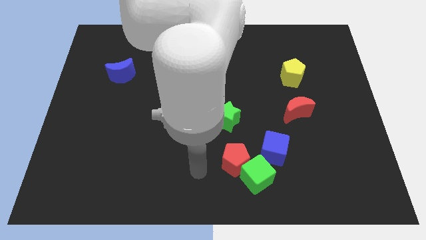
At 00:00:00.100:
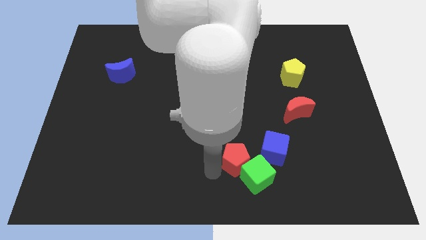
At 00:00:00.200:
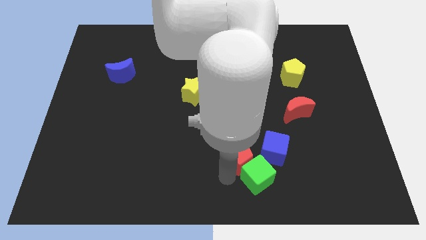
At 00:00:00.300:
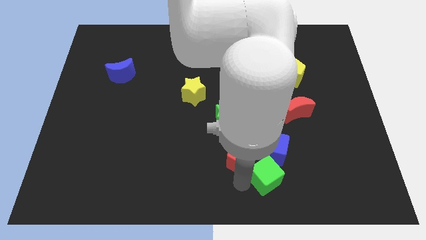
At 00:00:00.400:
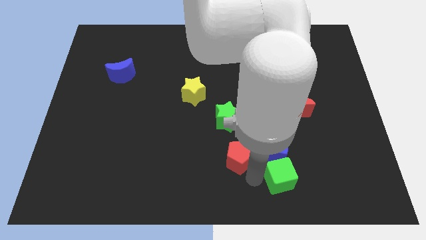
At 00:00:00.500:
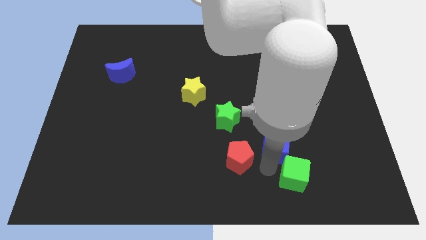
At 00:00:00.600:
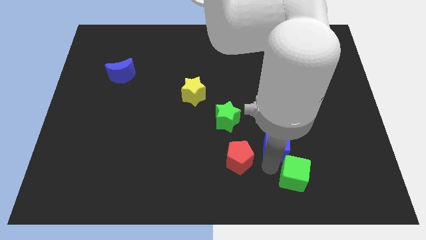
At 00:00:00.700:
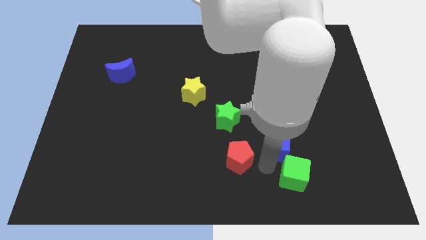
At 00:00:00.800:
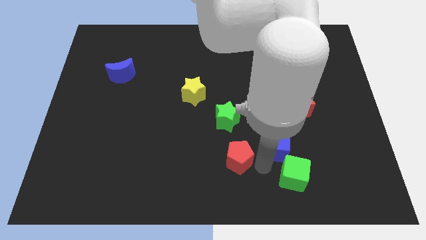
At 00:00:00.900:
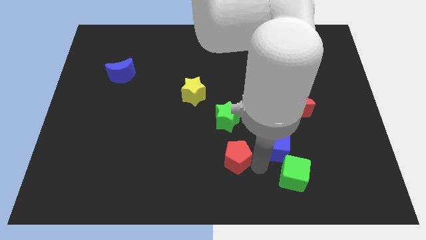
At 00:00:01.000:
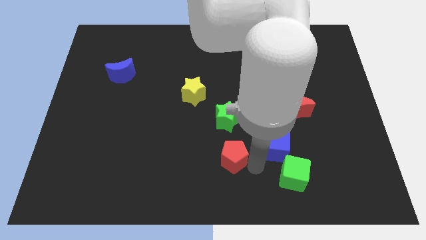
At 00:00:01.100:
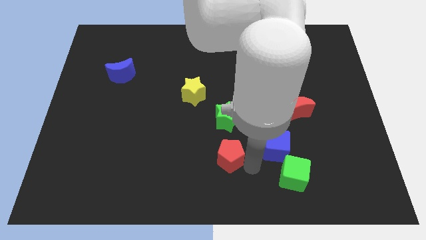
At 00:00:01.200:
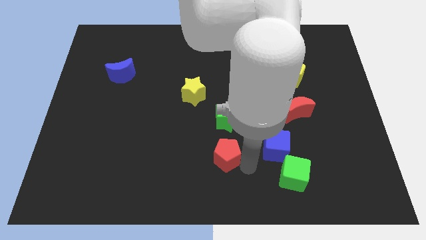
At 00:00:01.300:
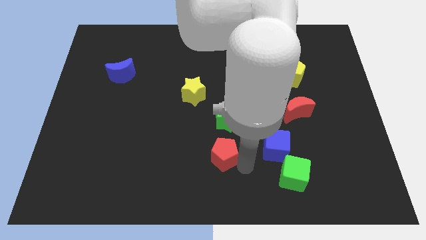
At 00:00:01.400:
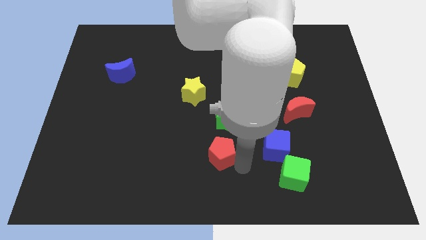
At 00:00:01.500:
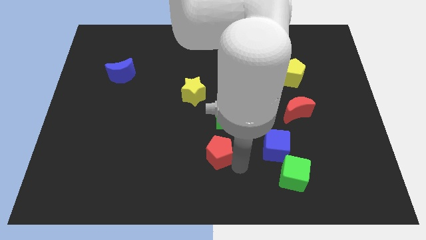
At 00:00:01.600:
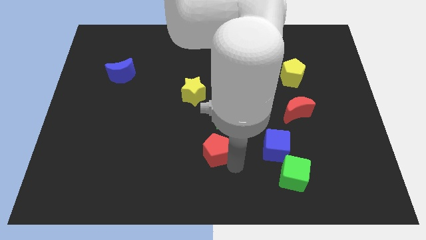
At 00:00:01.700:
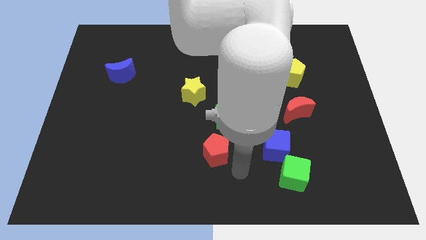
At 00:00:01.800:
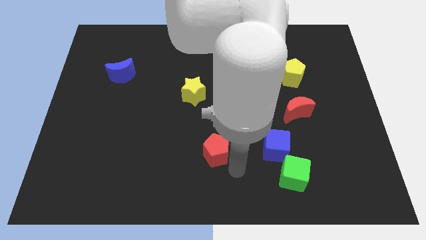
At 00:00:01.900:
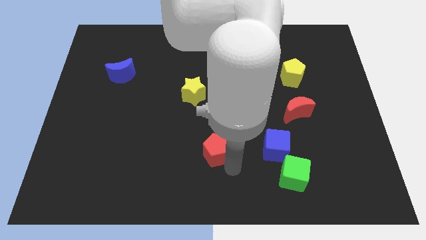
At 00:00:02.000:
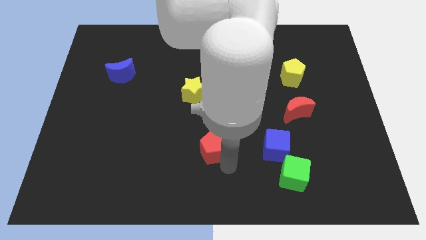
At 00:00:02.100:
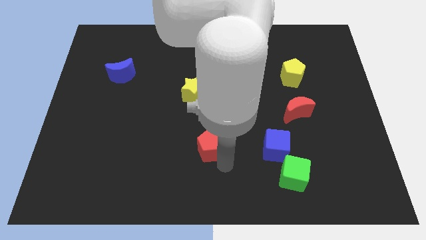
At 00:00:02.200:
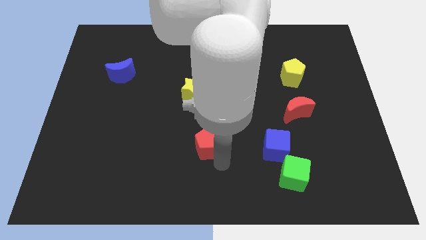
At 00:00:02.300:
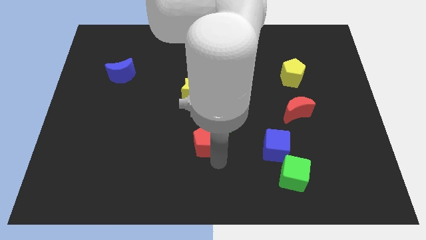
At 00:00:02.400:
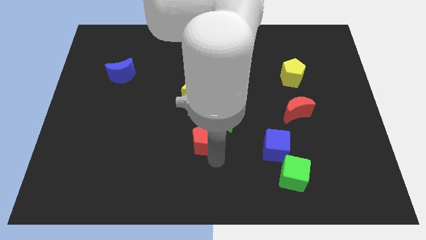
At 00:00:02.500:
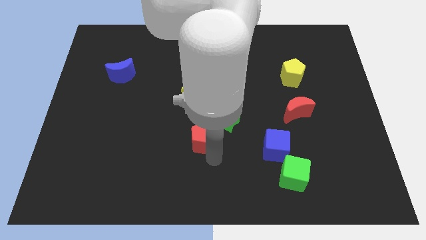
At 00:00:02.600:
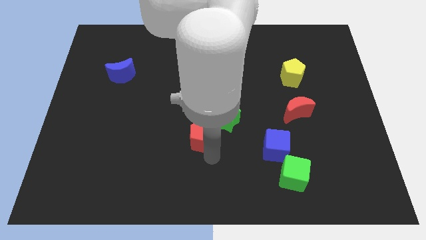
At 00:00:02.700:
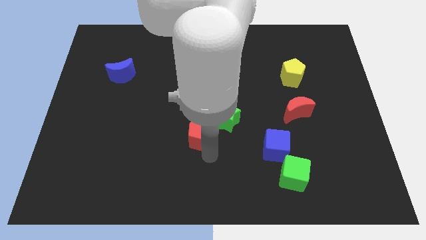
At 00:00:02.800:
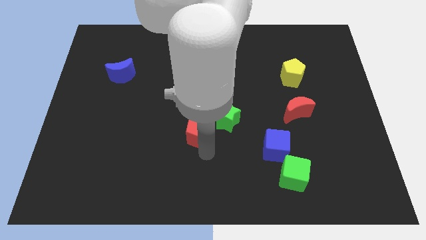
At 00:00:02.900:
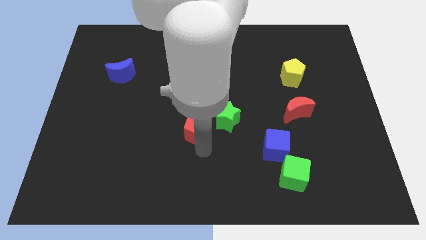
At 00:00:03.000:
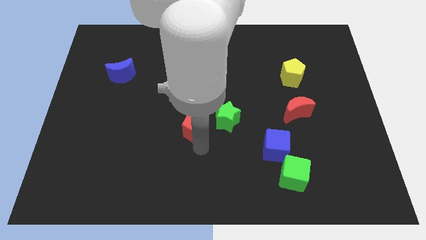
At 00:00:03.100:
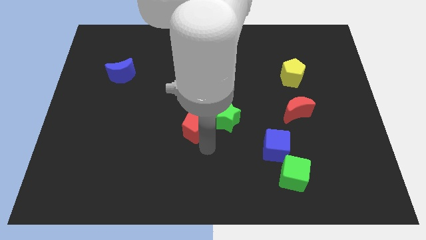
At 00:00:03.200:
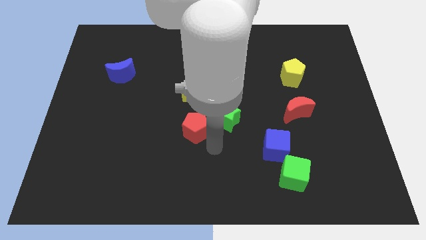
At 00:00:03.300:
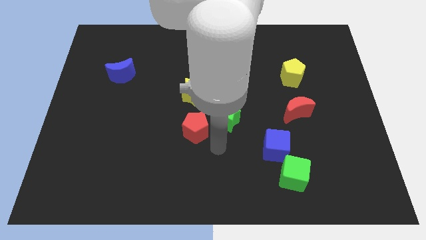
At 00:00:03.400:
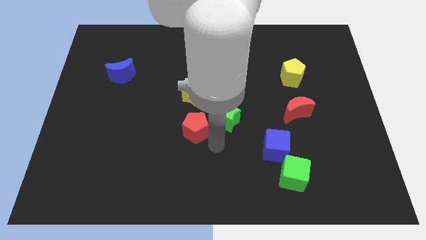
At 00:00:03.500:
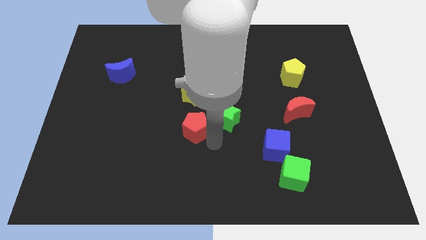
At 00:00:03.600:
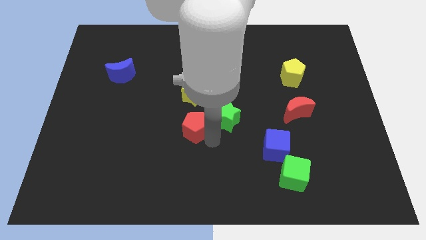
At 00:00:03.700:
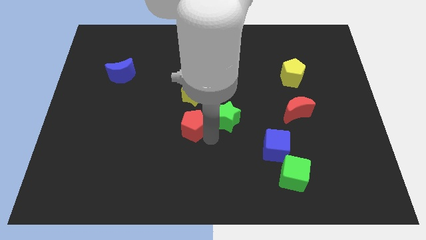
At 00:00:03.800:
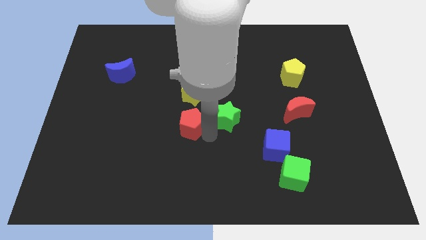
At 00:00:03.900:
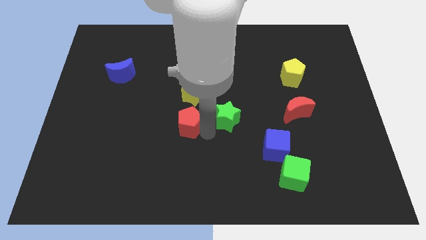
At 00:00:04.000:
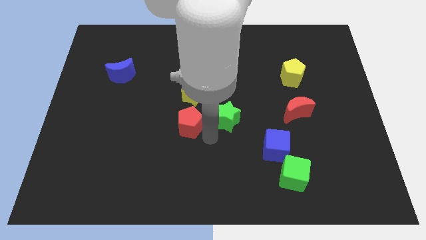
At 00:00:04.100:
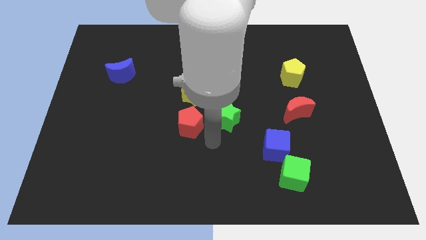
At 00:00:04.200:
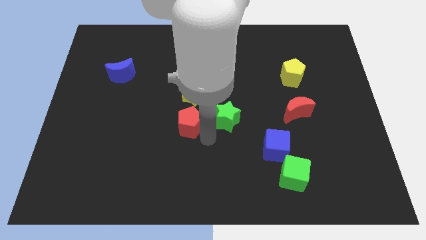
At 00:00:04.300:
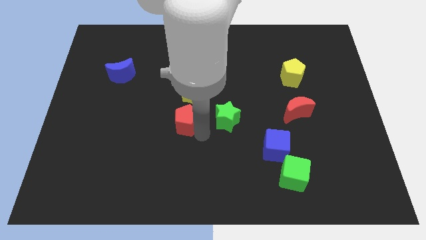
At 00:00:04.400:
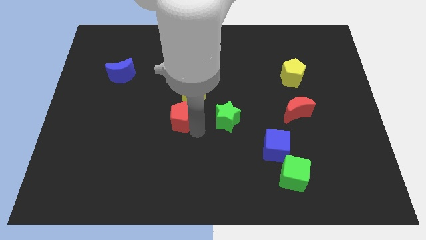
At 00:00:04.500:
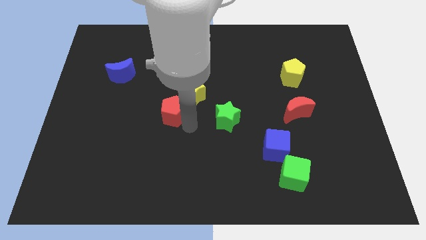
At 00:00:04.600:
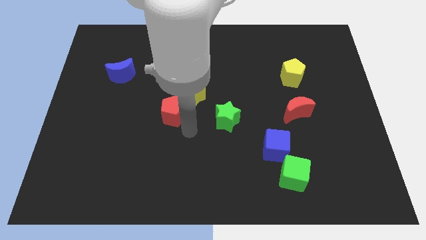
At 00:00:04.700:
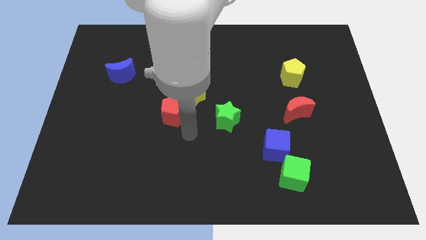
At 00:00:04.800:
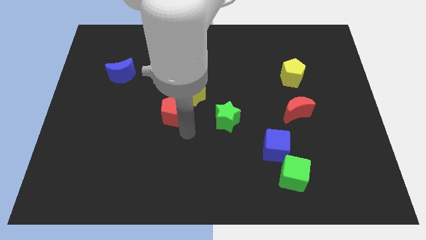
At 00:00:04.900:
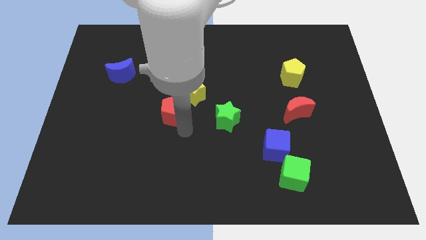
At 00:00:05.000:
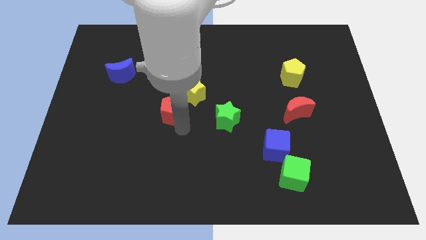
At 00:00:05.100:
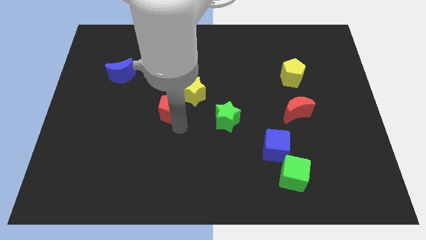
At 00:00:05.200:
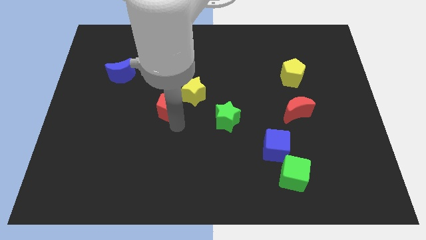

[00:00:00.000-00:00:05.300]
slide the red pentagon up and left

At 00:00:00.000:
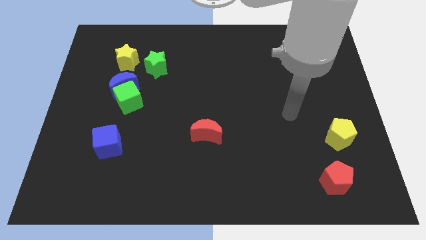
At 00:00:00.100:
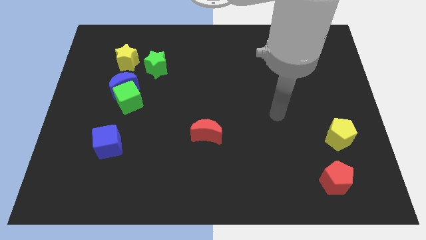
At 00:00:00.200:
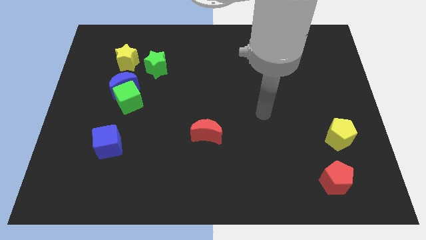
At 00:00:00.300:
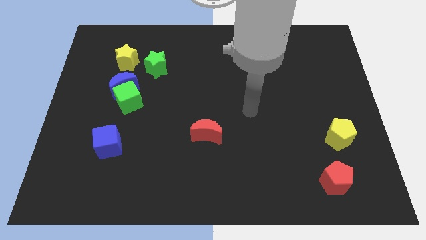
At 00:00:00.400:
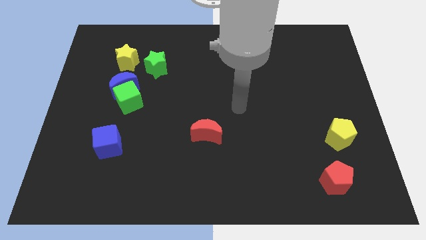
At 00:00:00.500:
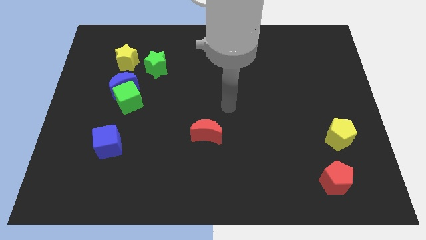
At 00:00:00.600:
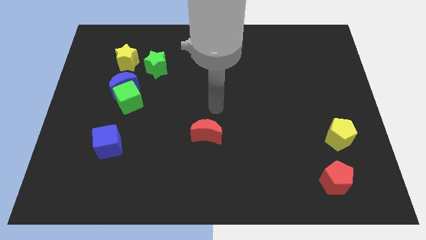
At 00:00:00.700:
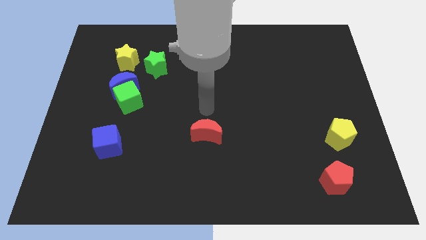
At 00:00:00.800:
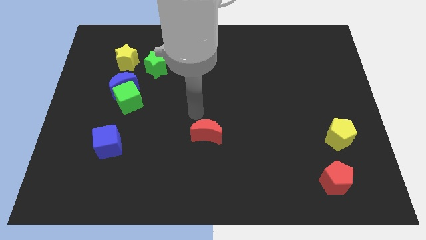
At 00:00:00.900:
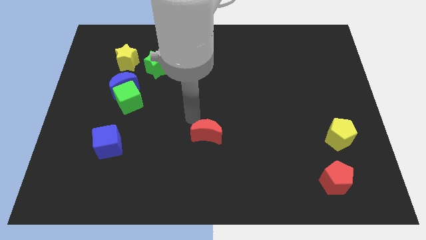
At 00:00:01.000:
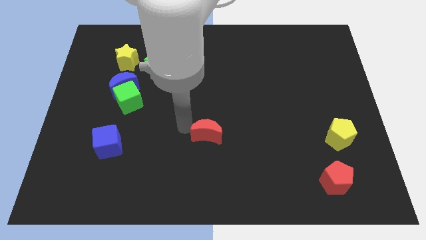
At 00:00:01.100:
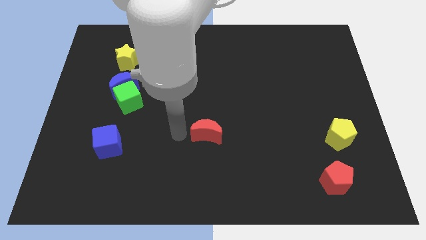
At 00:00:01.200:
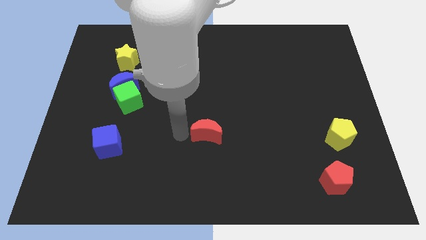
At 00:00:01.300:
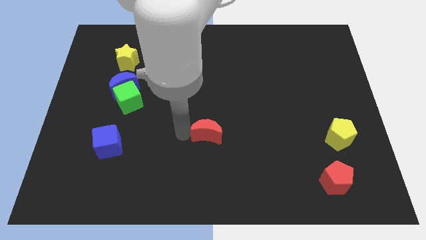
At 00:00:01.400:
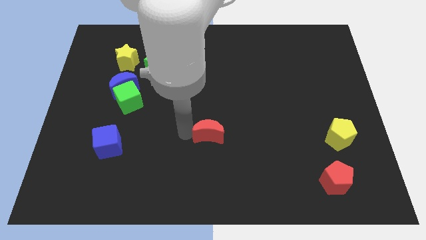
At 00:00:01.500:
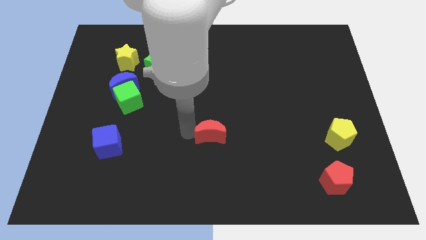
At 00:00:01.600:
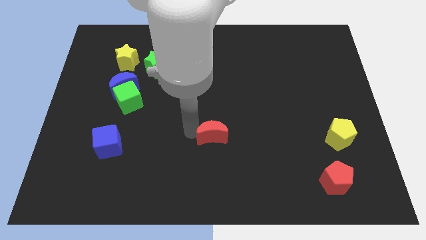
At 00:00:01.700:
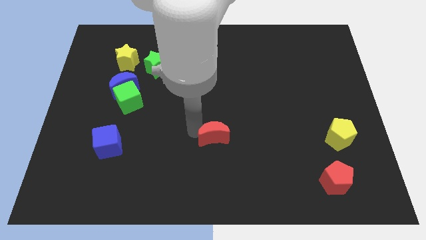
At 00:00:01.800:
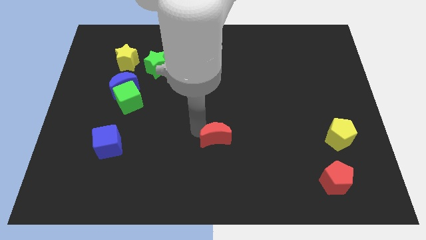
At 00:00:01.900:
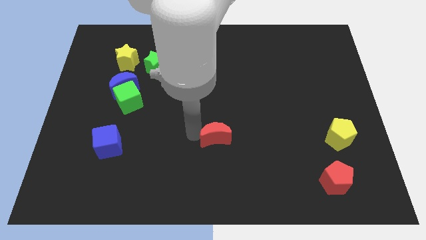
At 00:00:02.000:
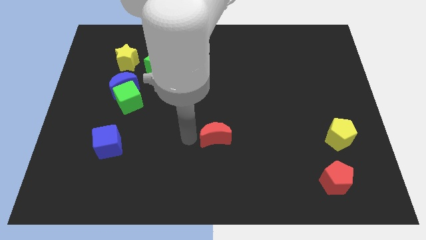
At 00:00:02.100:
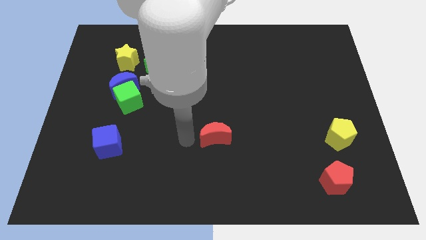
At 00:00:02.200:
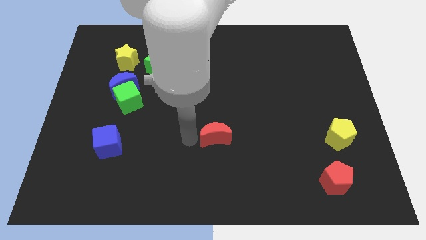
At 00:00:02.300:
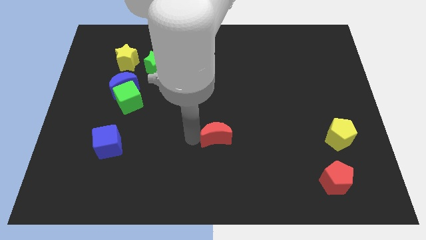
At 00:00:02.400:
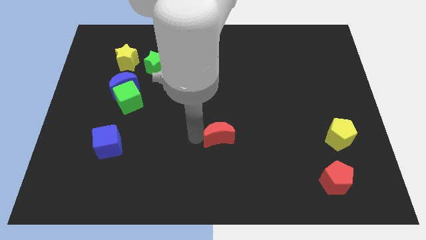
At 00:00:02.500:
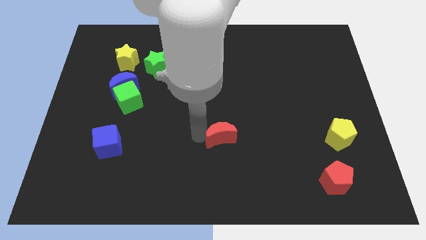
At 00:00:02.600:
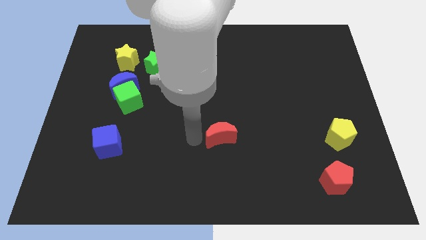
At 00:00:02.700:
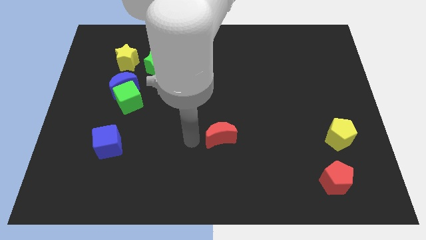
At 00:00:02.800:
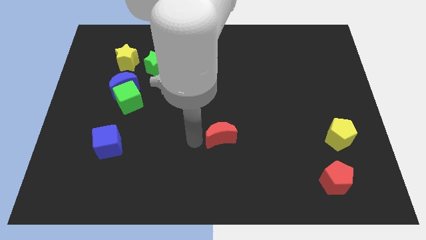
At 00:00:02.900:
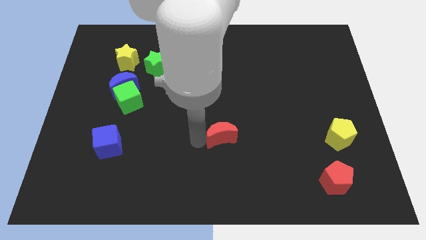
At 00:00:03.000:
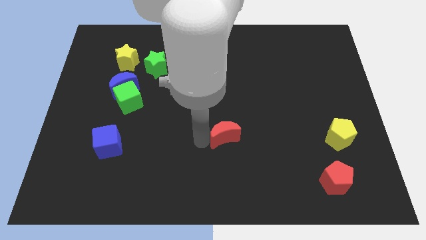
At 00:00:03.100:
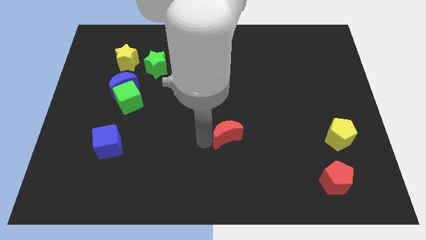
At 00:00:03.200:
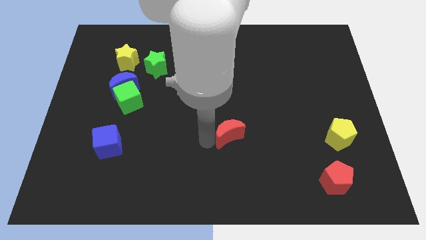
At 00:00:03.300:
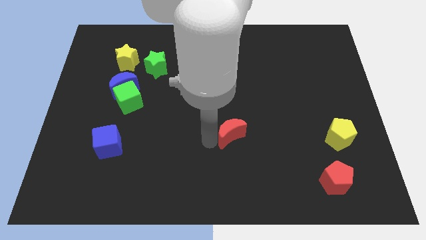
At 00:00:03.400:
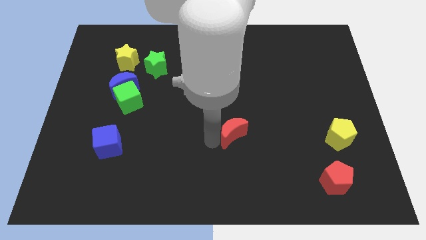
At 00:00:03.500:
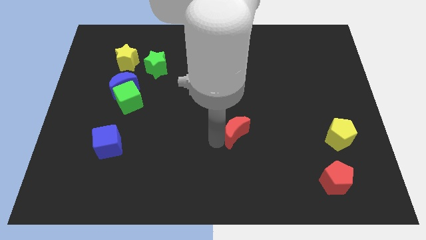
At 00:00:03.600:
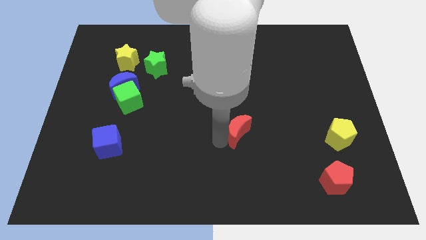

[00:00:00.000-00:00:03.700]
slightly slide the red moon right
